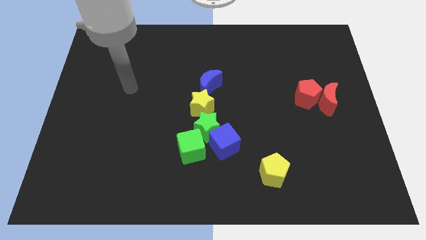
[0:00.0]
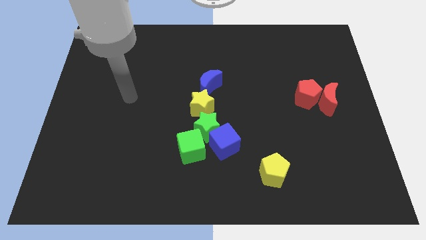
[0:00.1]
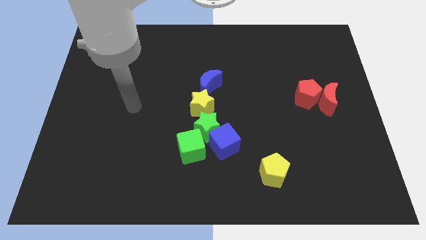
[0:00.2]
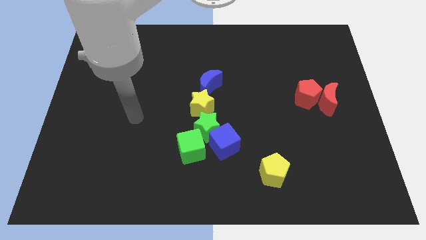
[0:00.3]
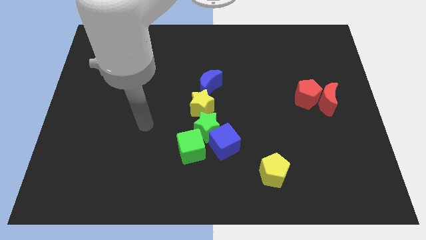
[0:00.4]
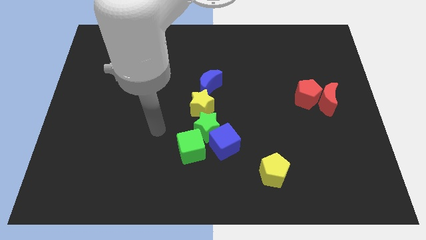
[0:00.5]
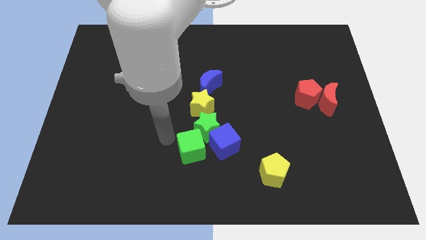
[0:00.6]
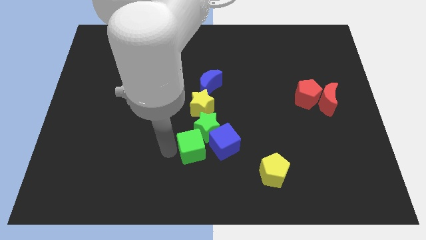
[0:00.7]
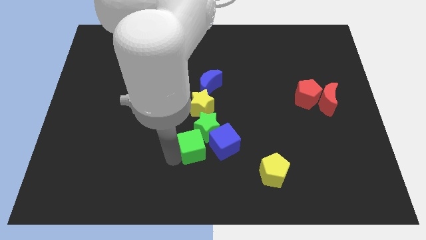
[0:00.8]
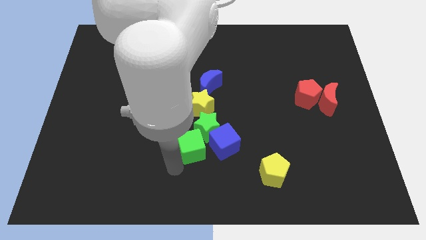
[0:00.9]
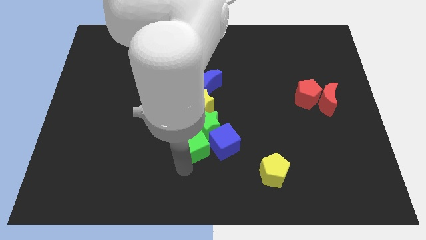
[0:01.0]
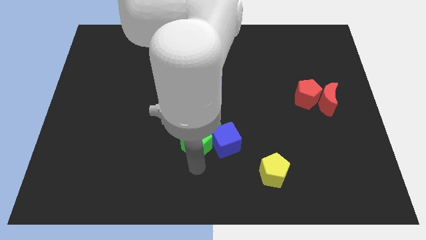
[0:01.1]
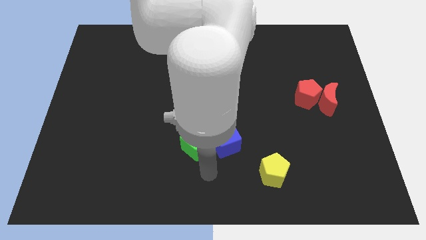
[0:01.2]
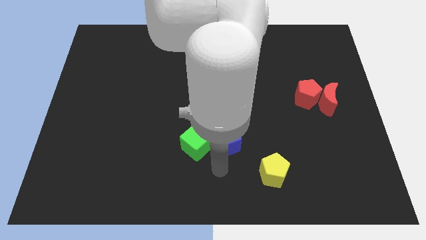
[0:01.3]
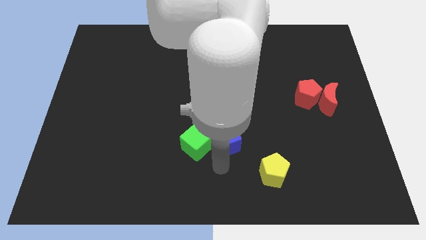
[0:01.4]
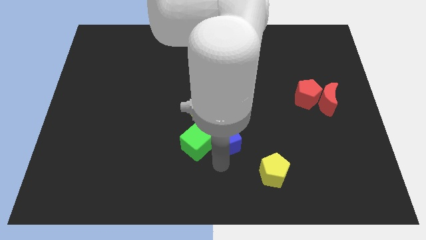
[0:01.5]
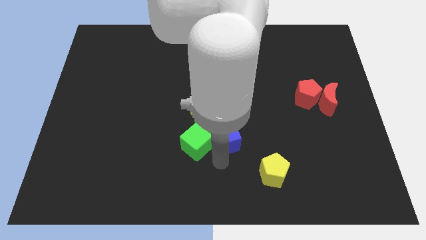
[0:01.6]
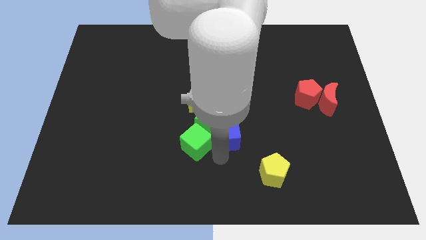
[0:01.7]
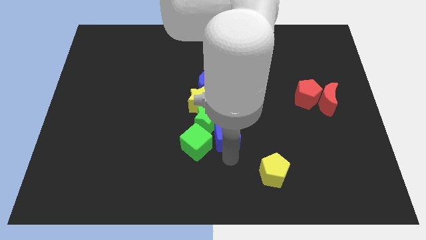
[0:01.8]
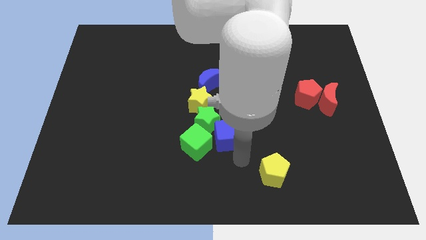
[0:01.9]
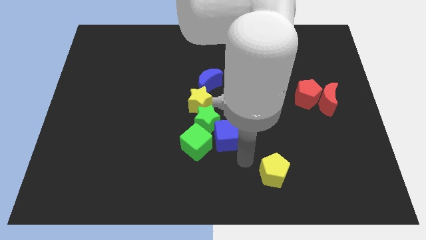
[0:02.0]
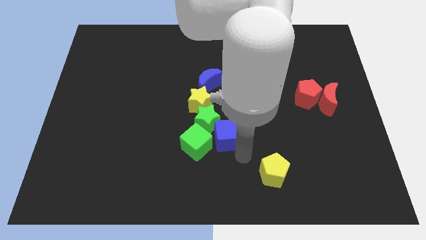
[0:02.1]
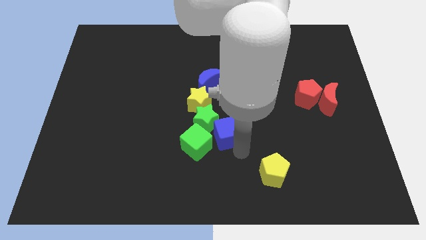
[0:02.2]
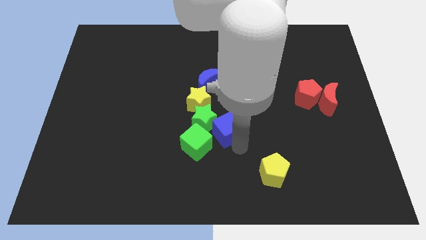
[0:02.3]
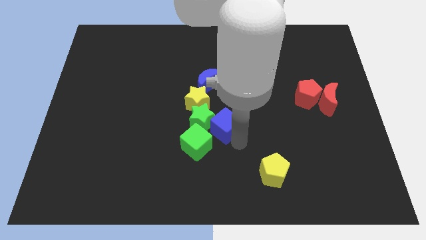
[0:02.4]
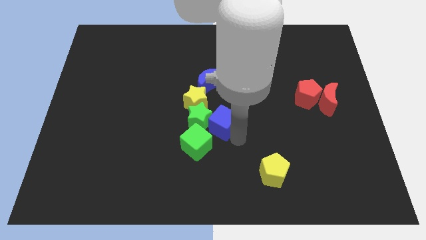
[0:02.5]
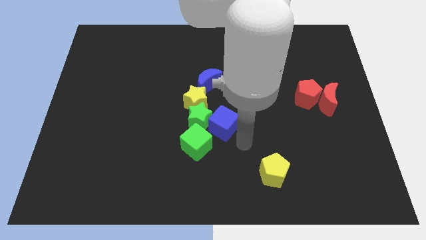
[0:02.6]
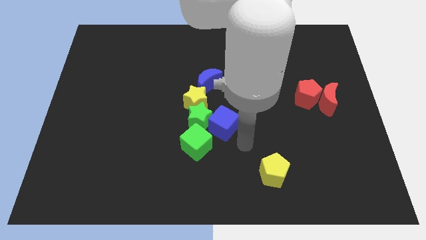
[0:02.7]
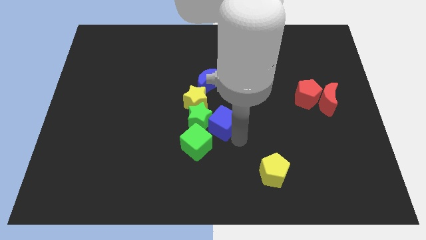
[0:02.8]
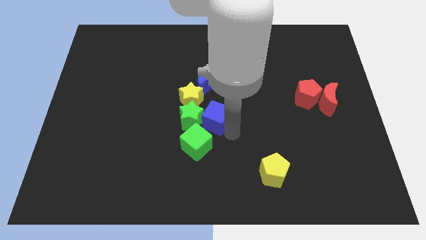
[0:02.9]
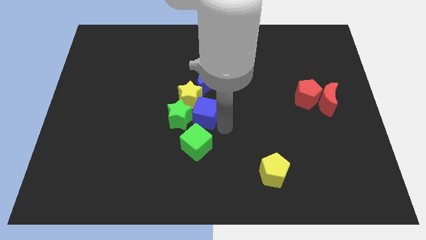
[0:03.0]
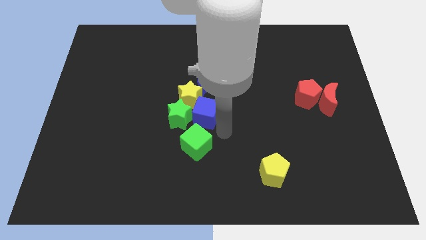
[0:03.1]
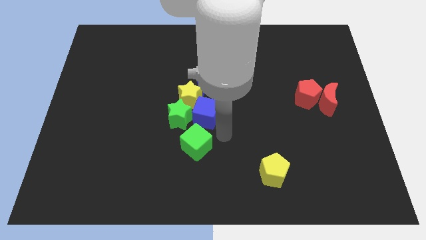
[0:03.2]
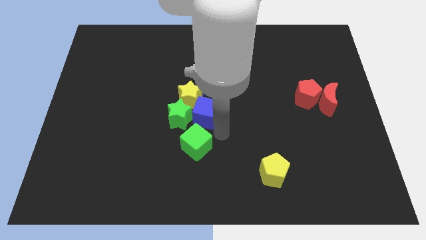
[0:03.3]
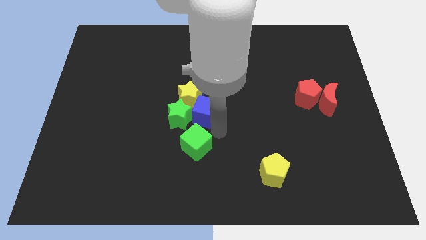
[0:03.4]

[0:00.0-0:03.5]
push the blue cube to the yellow star

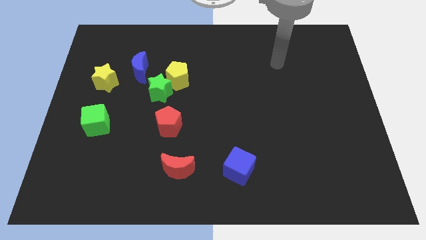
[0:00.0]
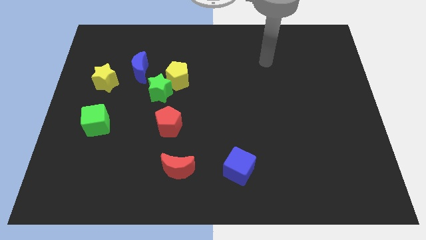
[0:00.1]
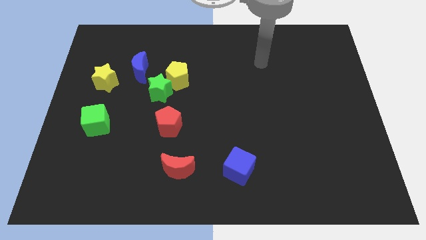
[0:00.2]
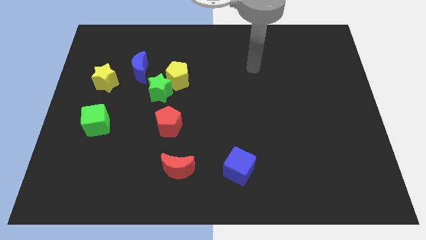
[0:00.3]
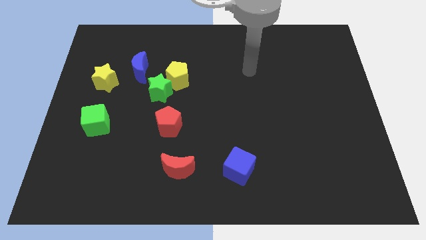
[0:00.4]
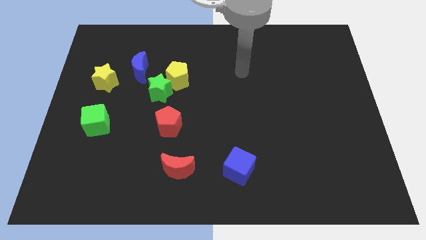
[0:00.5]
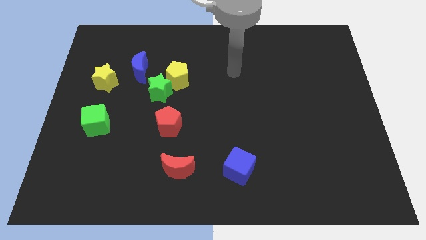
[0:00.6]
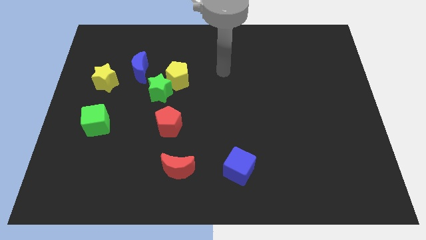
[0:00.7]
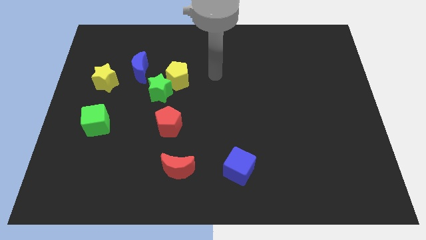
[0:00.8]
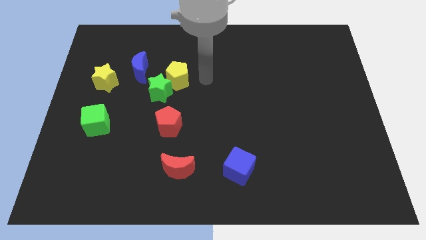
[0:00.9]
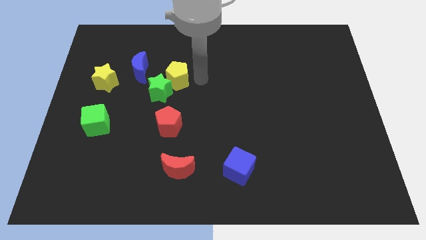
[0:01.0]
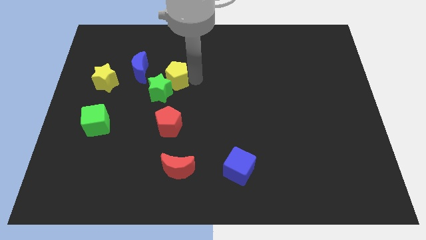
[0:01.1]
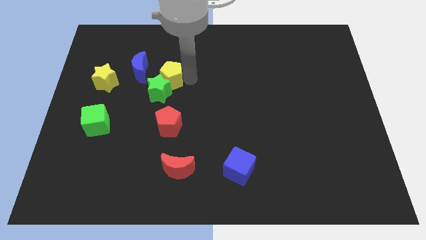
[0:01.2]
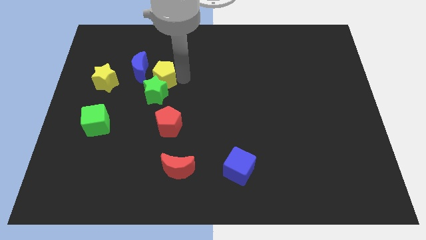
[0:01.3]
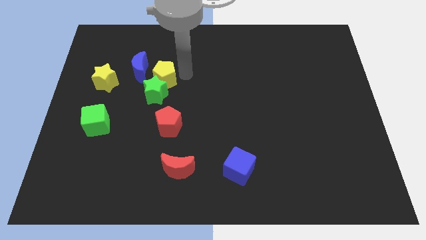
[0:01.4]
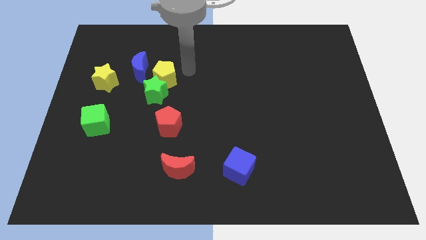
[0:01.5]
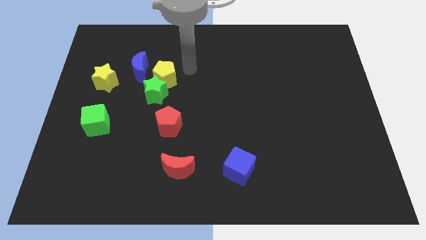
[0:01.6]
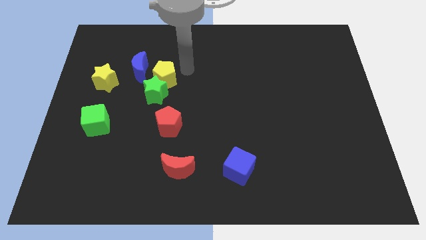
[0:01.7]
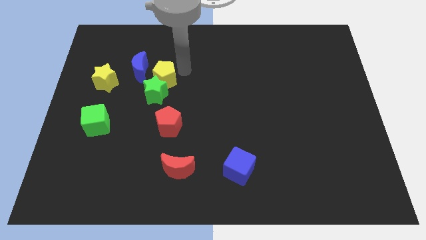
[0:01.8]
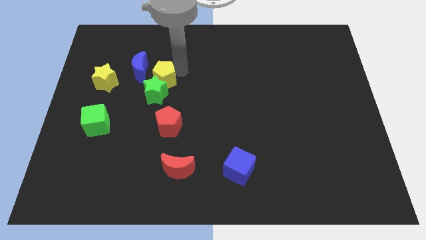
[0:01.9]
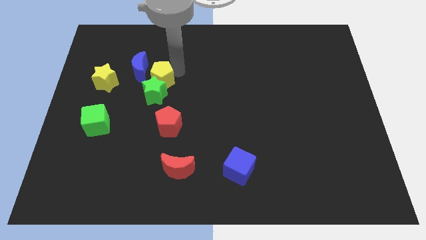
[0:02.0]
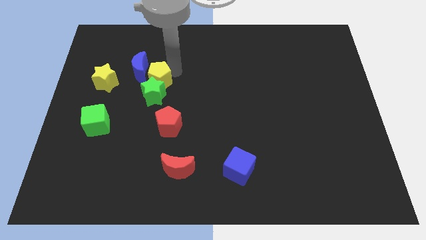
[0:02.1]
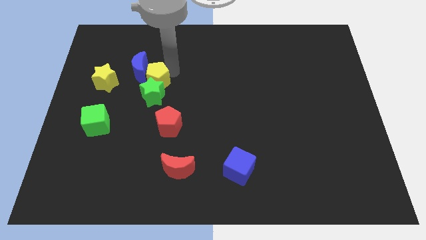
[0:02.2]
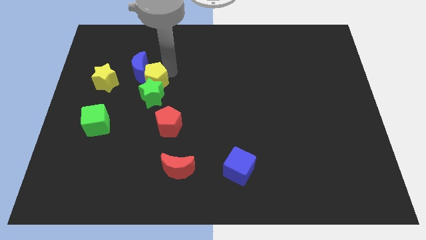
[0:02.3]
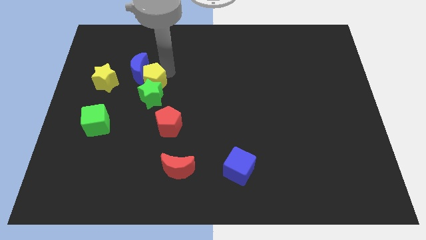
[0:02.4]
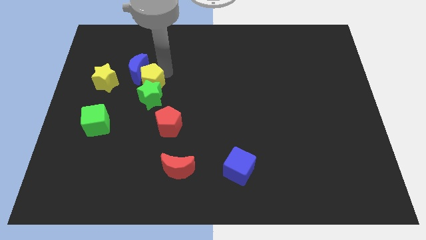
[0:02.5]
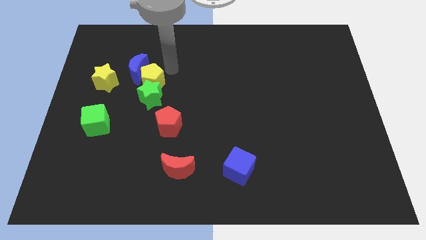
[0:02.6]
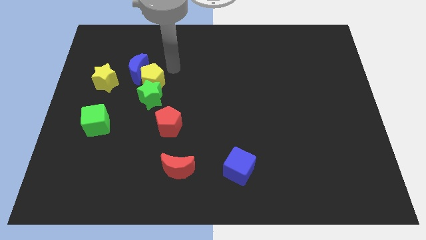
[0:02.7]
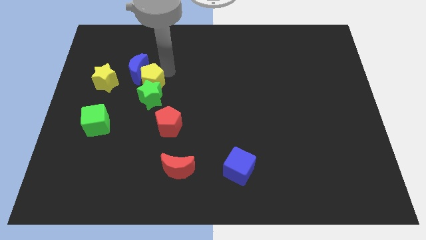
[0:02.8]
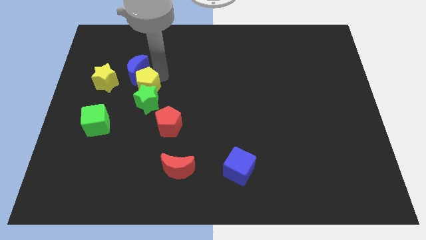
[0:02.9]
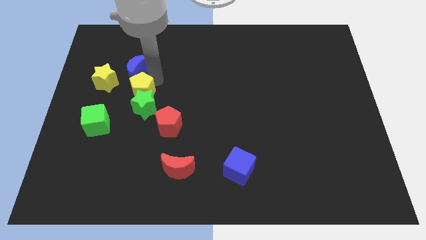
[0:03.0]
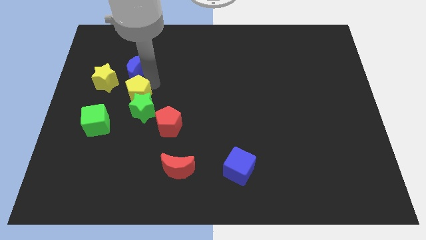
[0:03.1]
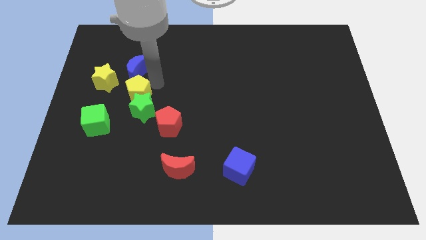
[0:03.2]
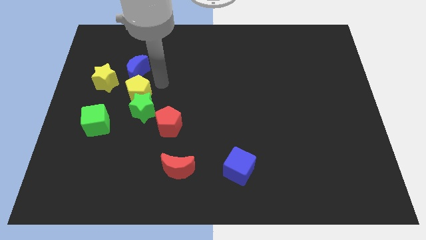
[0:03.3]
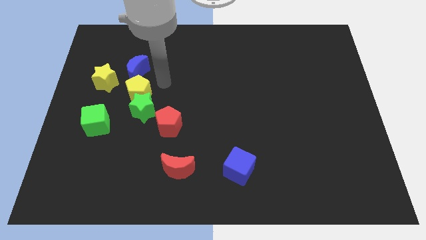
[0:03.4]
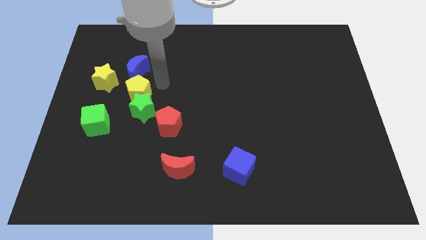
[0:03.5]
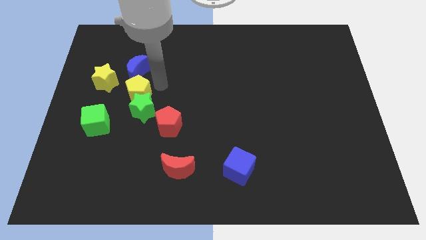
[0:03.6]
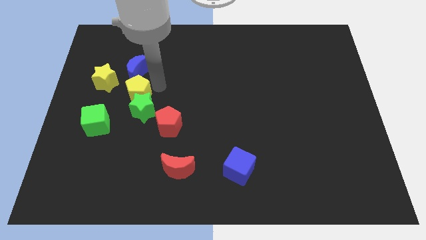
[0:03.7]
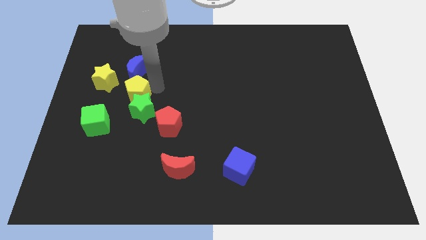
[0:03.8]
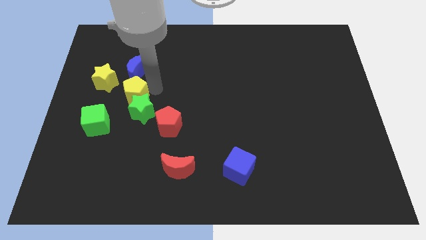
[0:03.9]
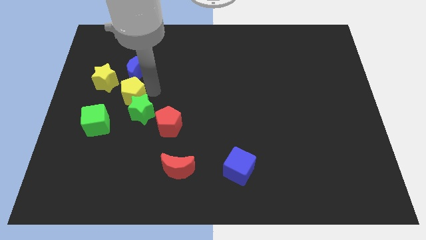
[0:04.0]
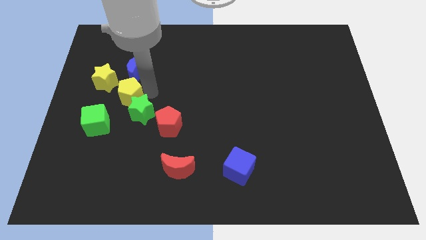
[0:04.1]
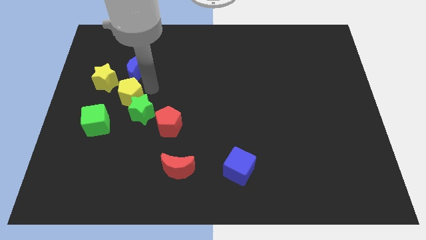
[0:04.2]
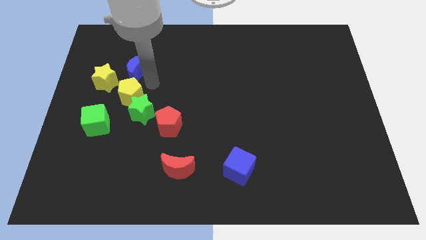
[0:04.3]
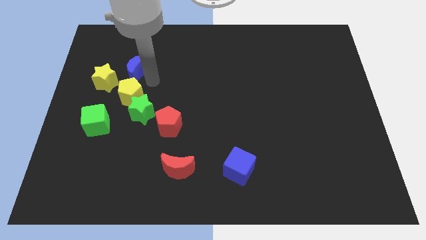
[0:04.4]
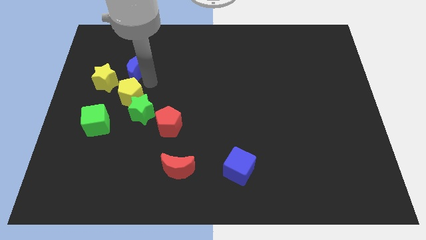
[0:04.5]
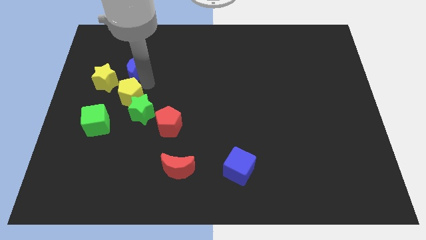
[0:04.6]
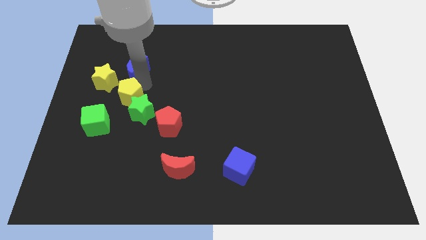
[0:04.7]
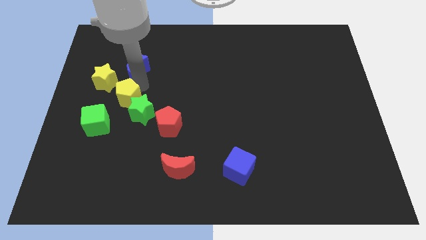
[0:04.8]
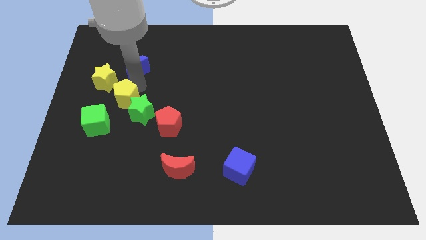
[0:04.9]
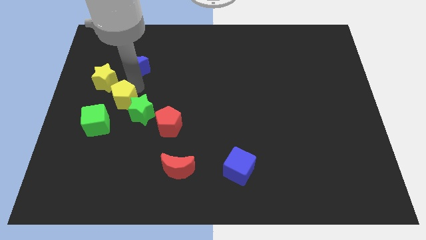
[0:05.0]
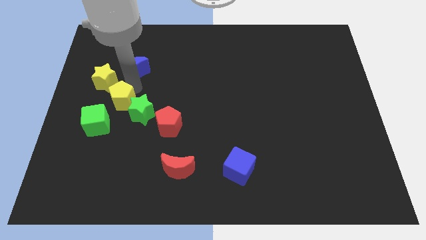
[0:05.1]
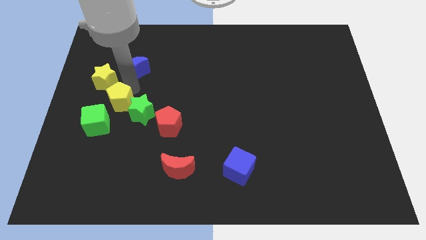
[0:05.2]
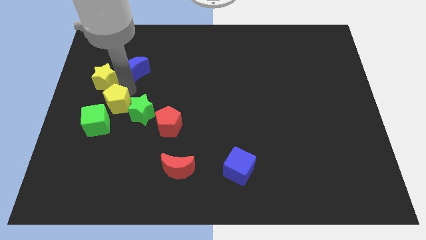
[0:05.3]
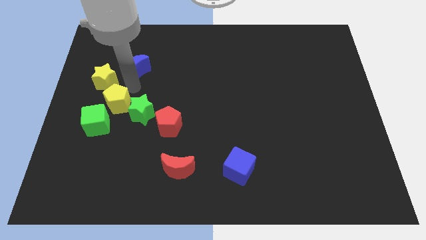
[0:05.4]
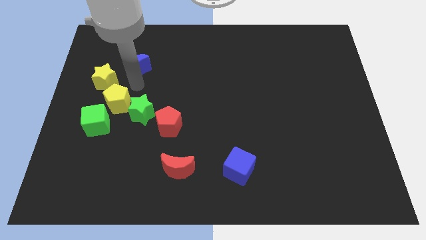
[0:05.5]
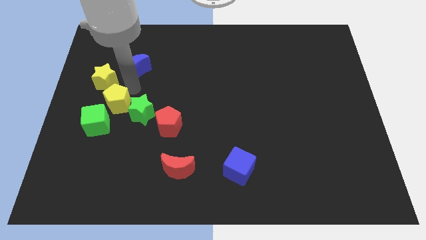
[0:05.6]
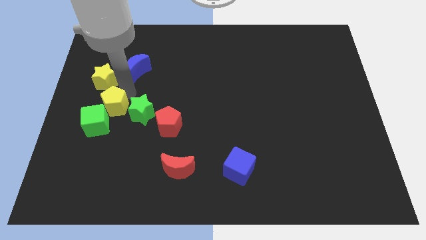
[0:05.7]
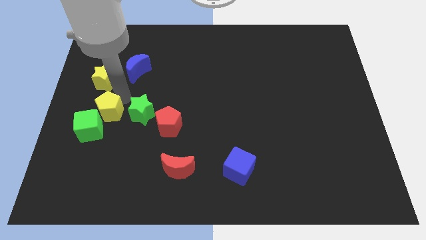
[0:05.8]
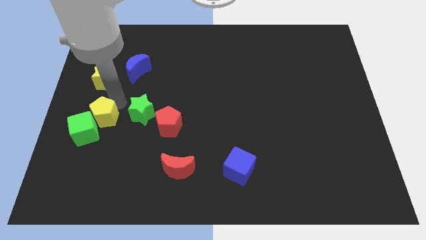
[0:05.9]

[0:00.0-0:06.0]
move the yellow pentagon next to the green cube
